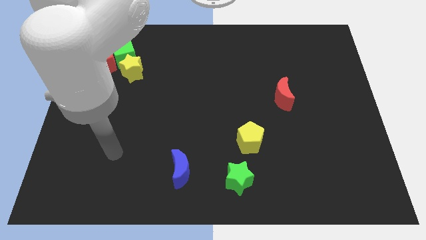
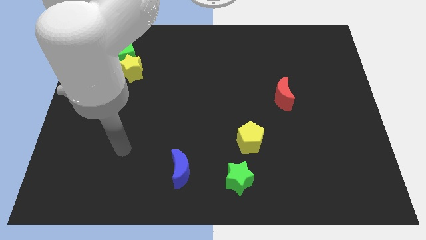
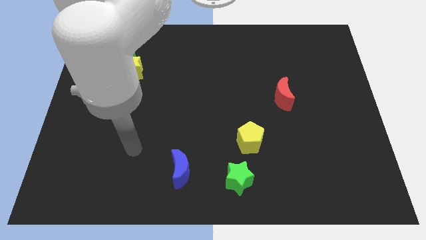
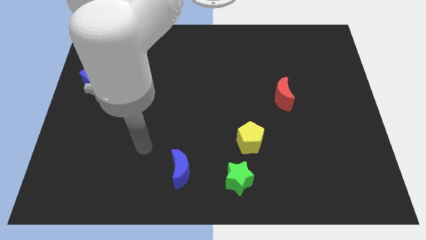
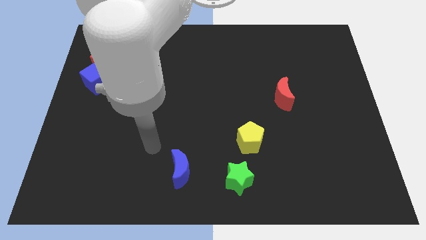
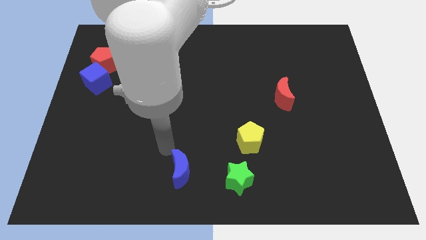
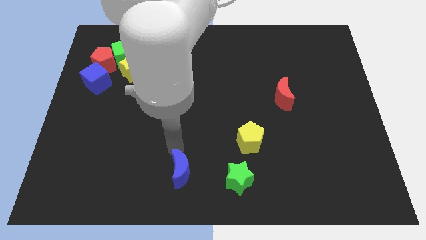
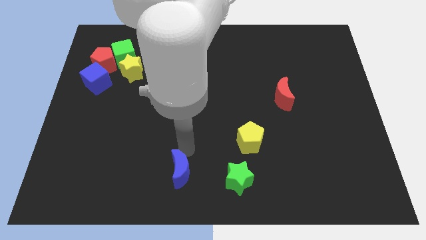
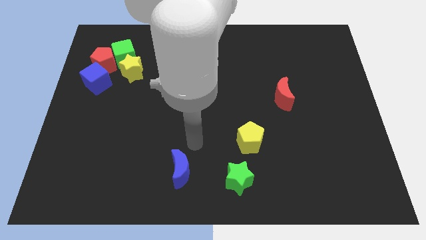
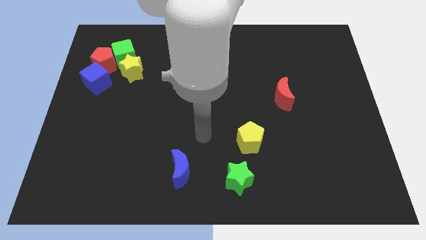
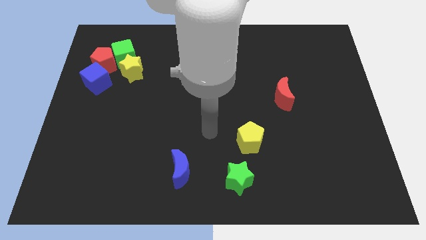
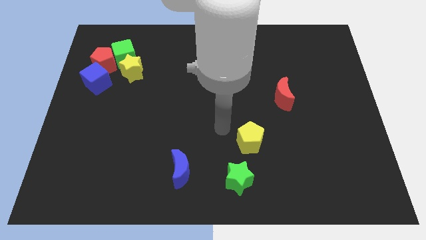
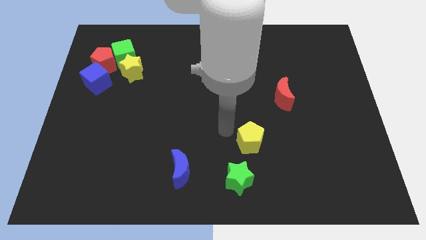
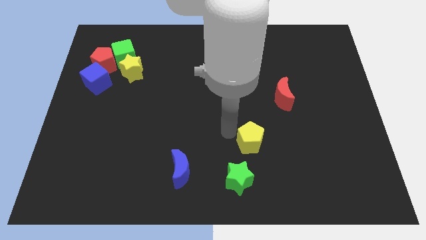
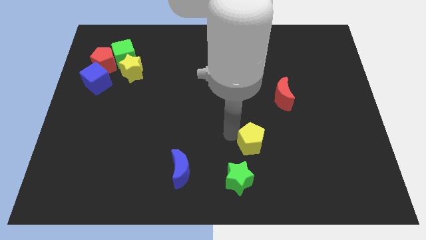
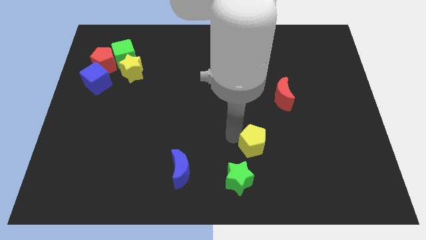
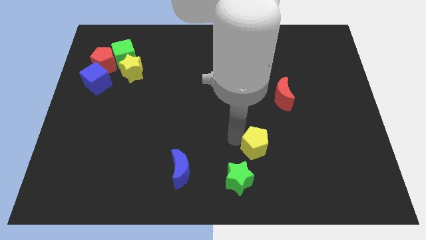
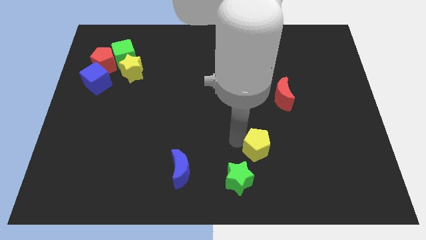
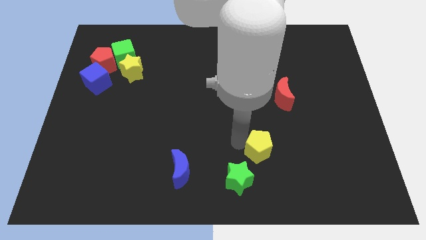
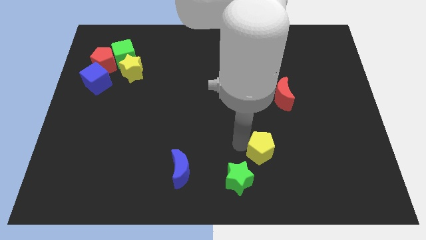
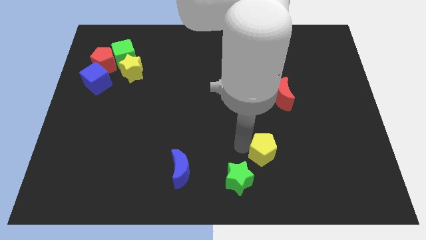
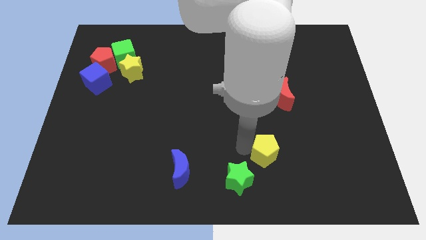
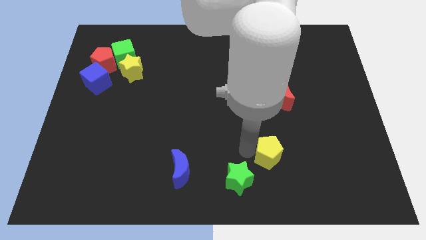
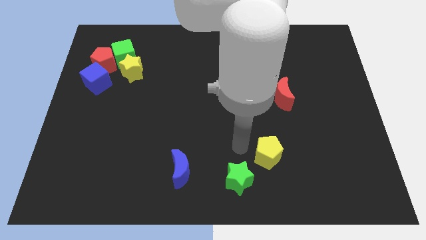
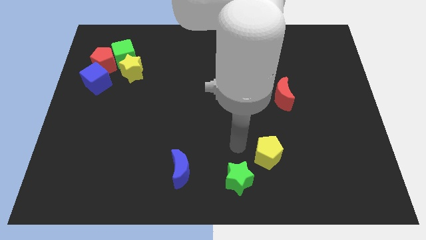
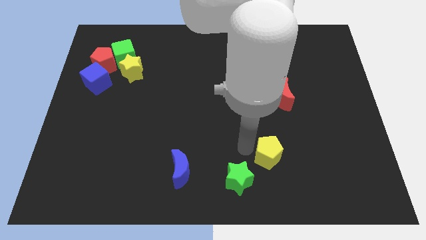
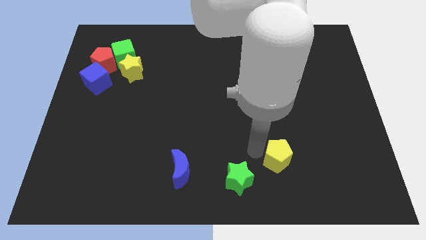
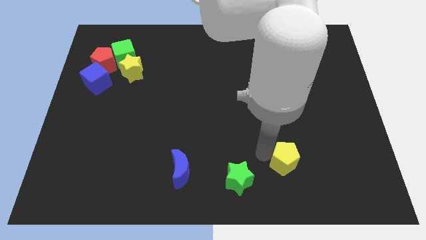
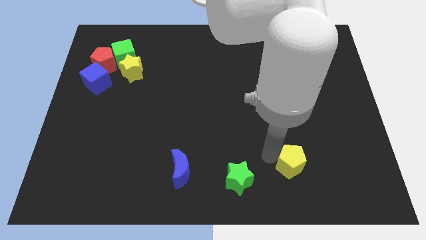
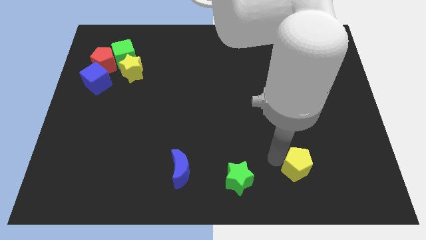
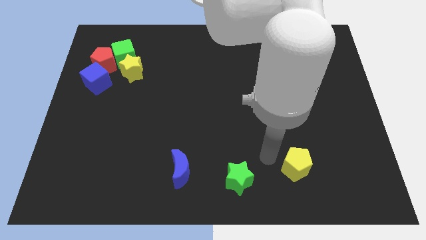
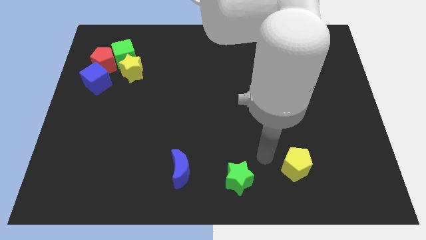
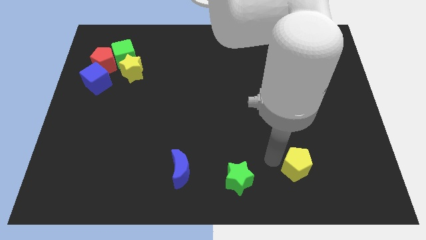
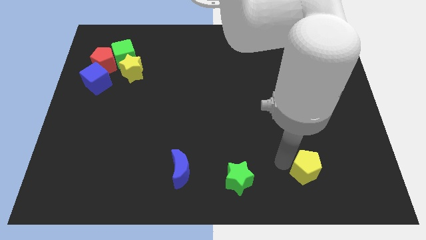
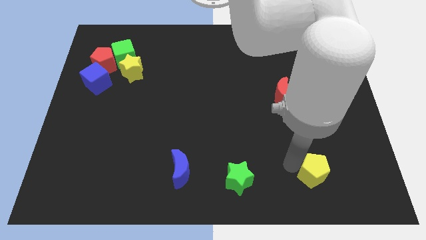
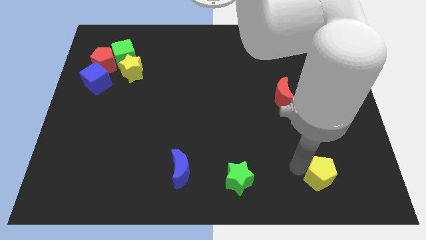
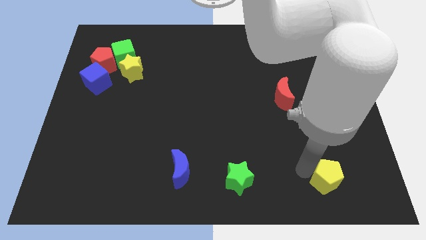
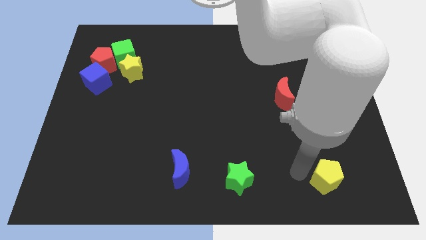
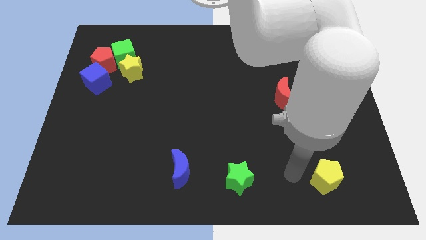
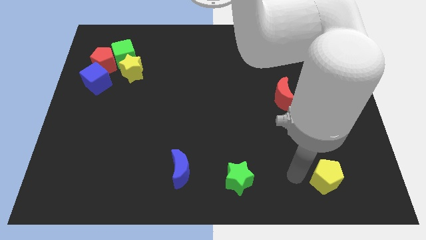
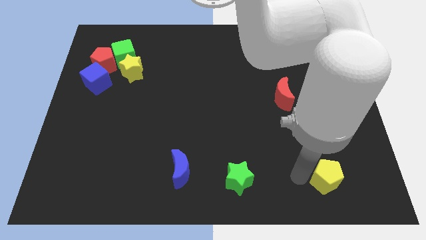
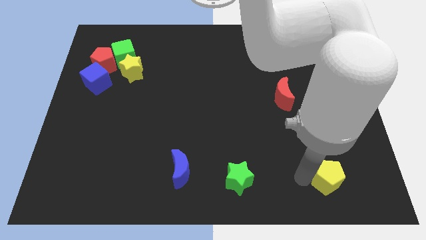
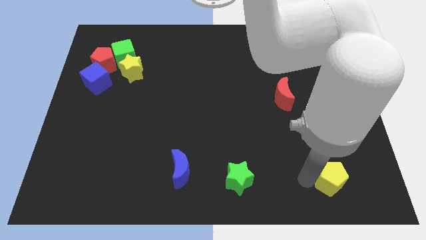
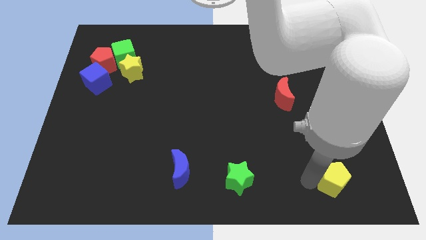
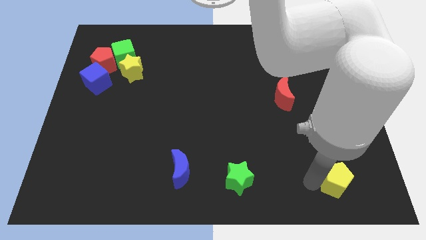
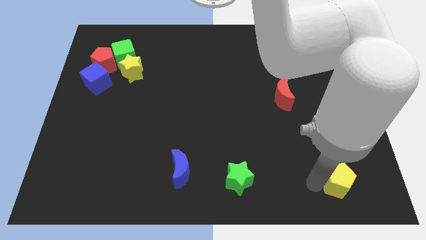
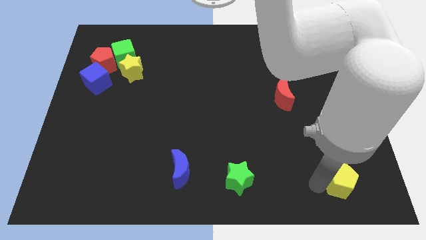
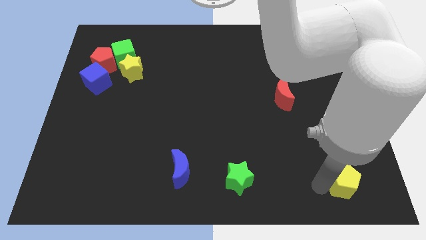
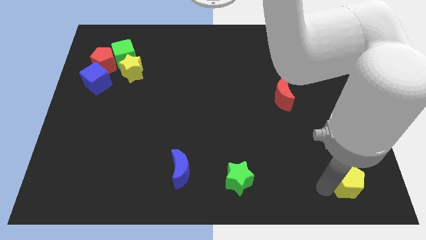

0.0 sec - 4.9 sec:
put the yellow pentagon to the bottom right

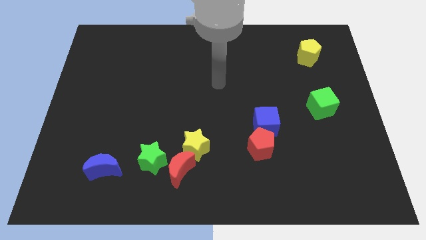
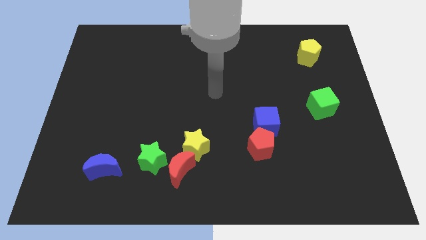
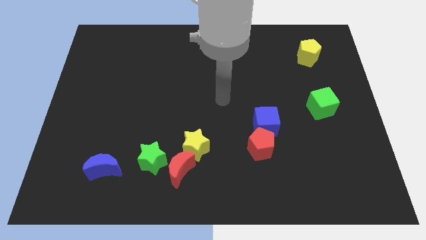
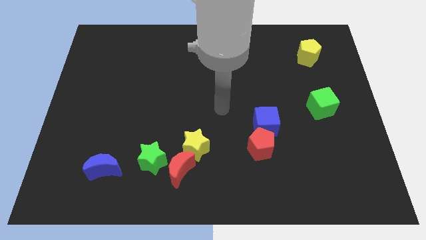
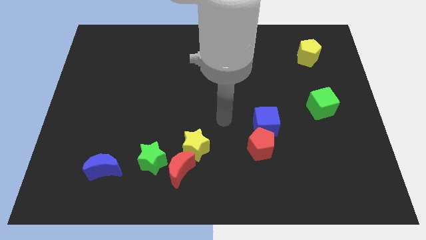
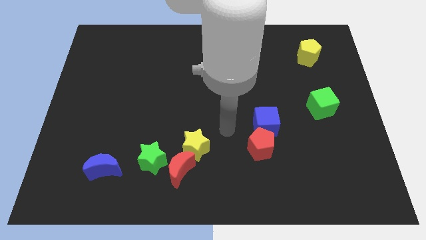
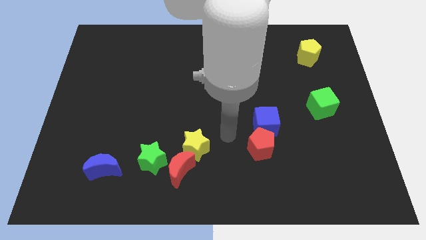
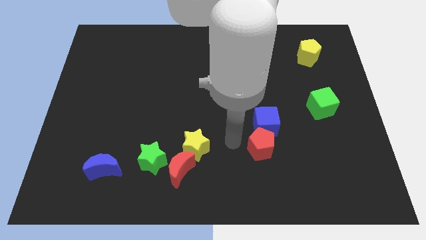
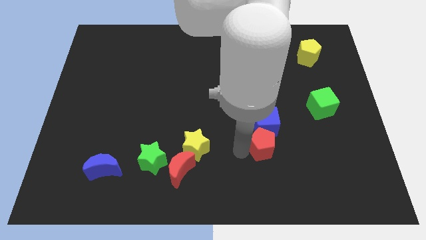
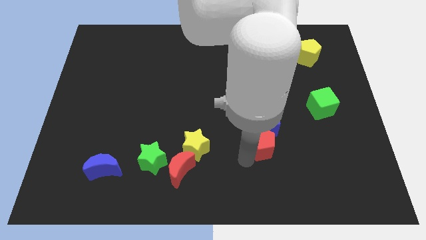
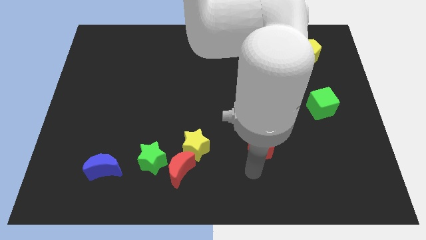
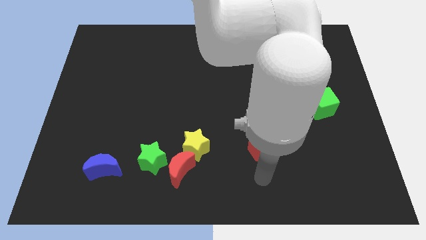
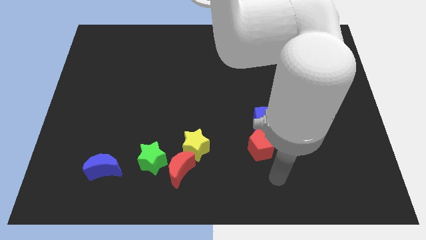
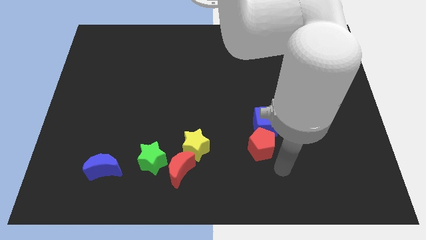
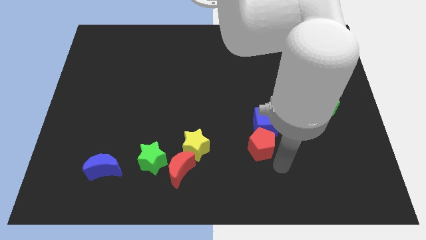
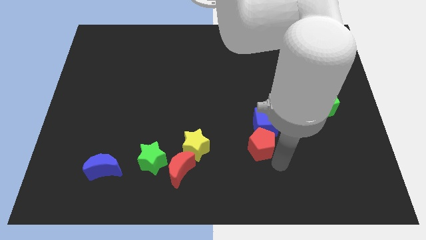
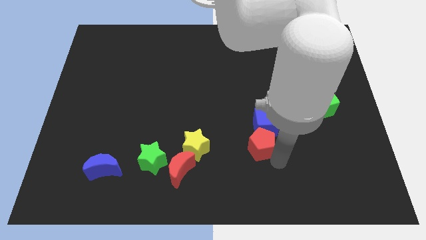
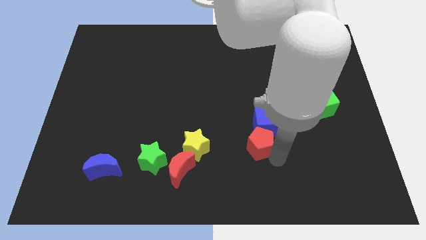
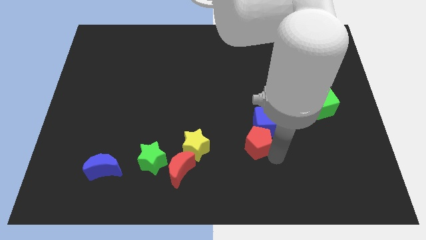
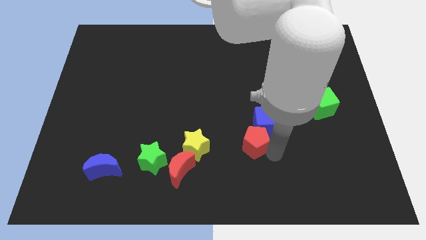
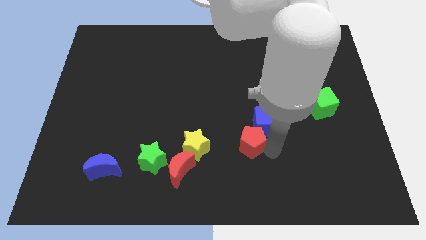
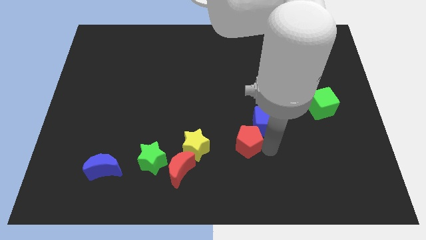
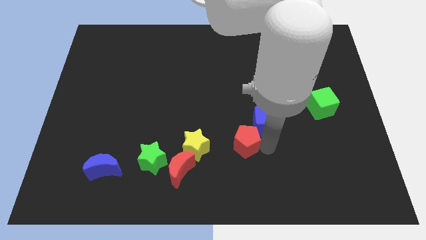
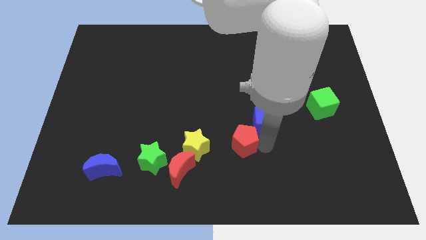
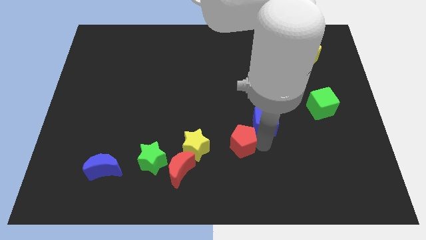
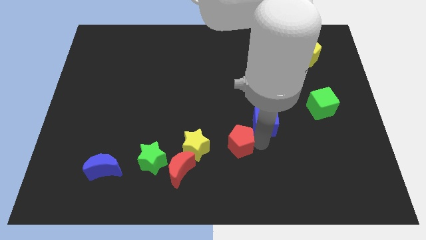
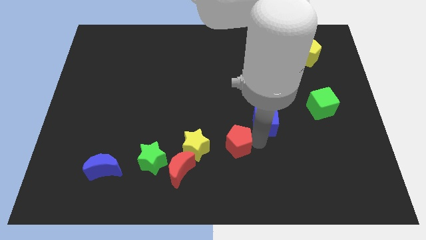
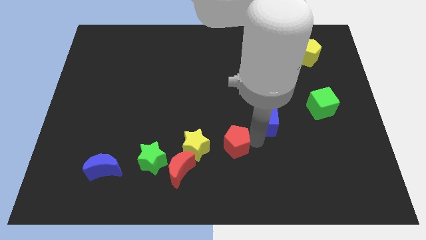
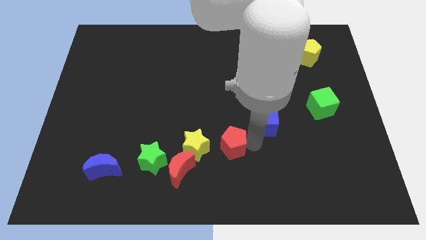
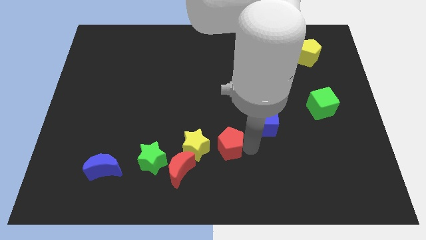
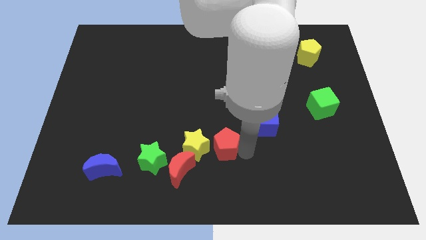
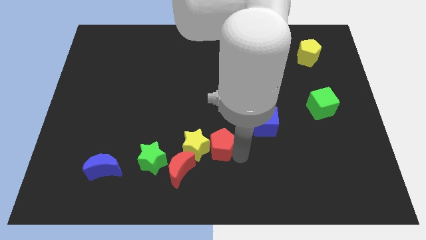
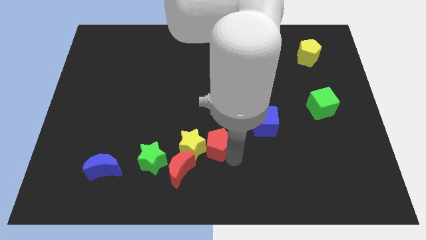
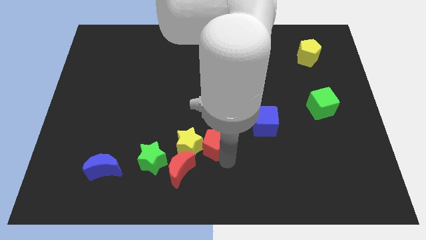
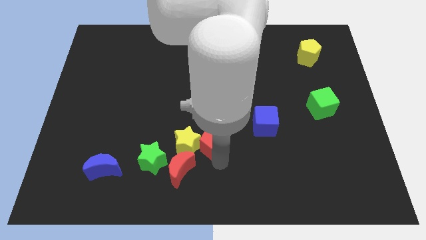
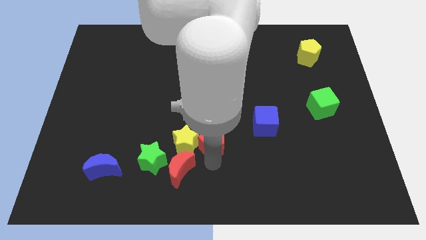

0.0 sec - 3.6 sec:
push the red pentagon to the middle of the board
